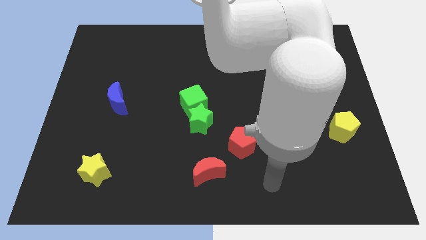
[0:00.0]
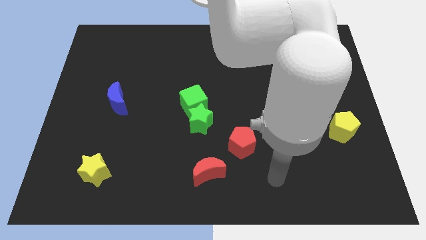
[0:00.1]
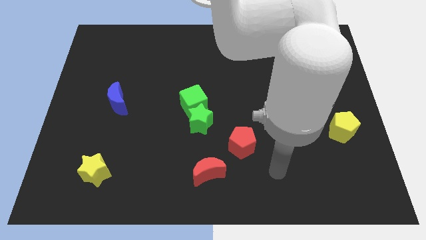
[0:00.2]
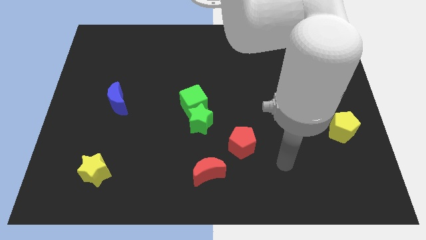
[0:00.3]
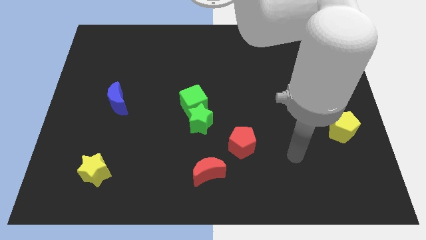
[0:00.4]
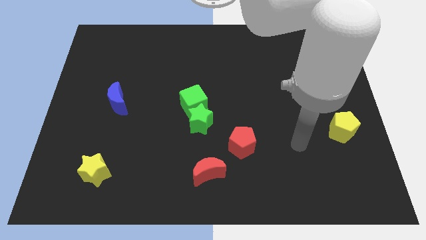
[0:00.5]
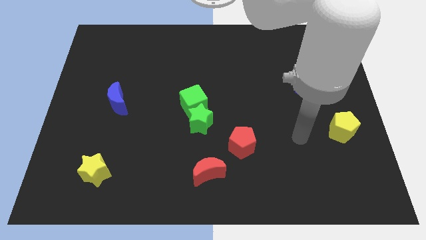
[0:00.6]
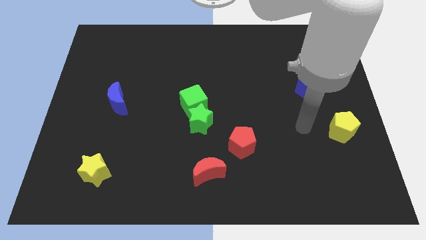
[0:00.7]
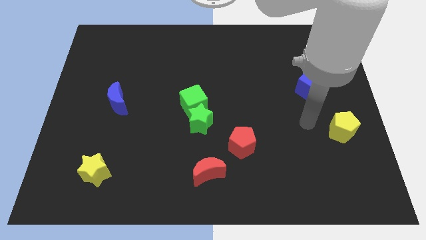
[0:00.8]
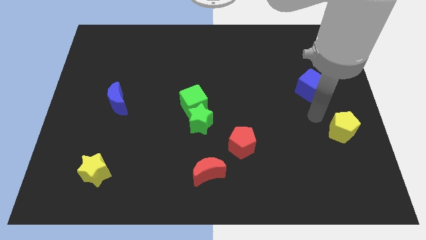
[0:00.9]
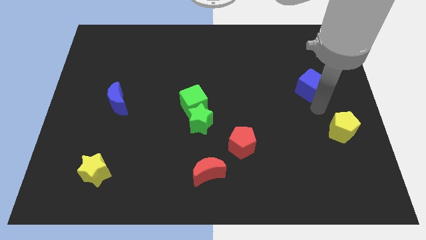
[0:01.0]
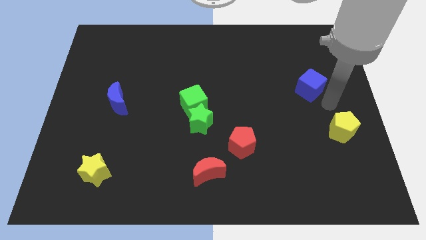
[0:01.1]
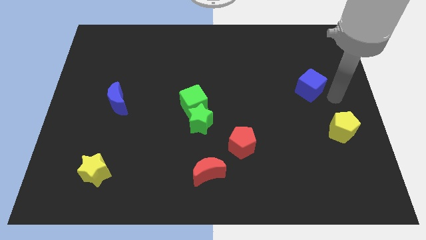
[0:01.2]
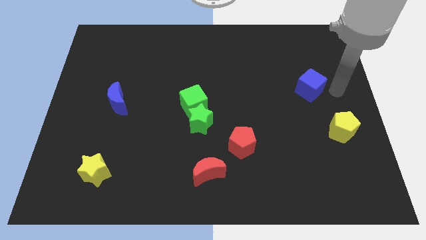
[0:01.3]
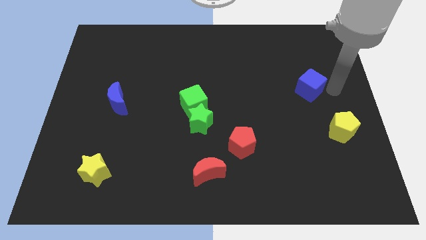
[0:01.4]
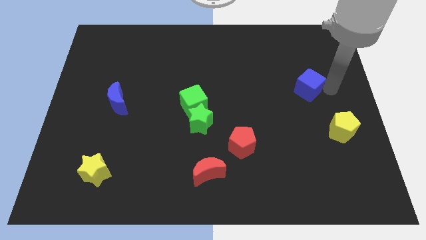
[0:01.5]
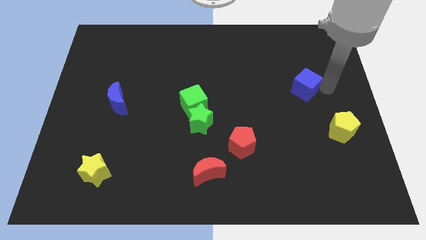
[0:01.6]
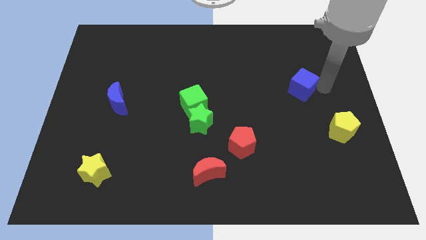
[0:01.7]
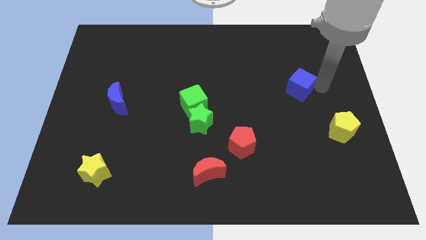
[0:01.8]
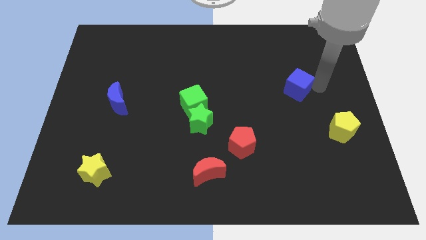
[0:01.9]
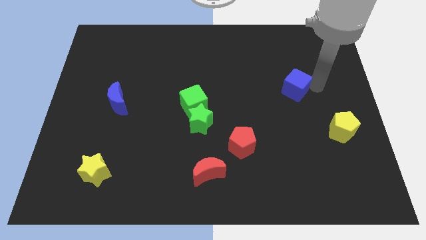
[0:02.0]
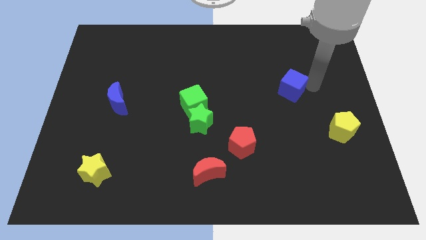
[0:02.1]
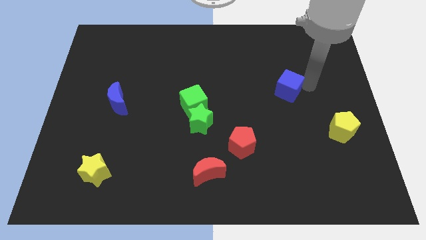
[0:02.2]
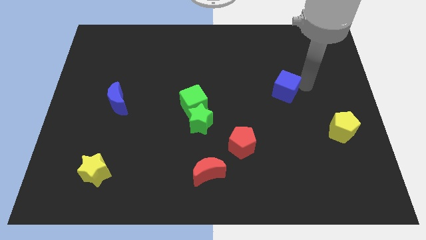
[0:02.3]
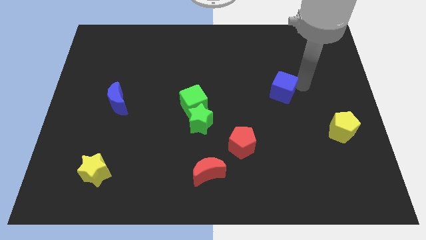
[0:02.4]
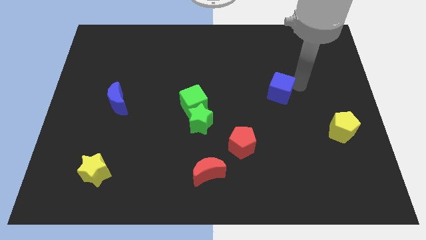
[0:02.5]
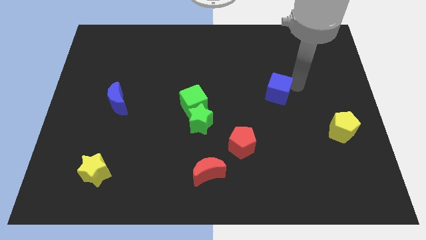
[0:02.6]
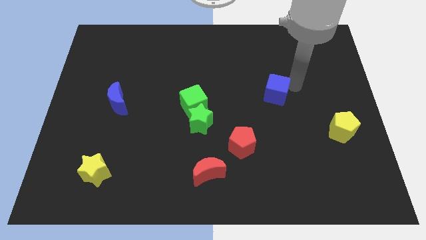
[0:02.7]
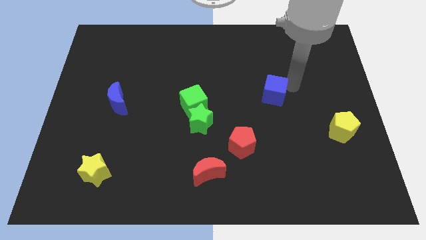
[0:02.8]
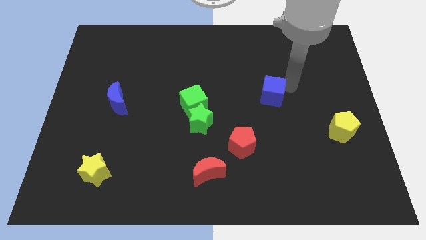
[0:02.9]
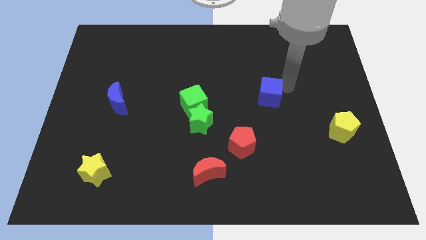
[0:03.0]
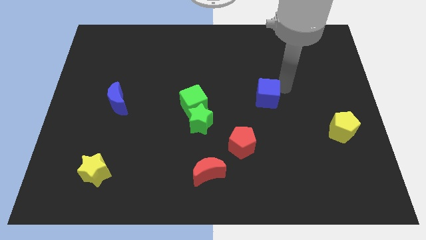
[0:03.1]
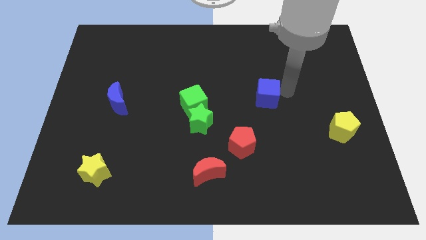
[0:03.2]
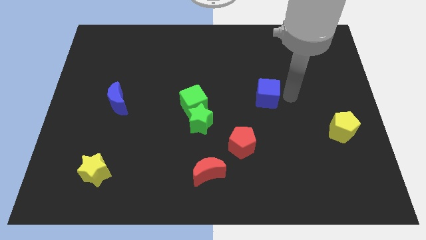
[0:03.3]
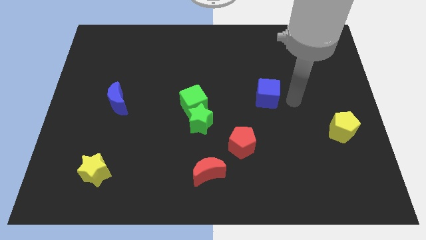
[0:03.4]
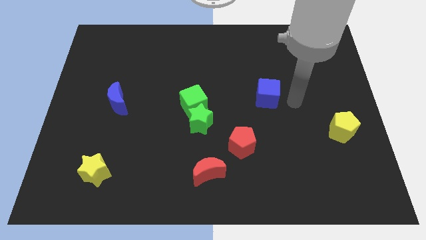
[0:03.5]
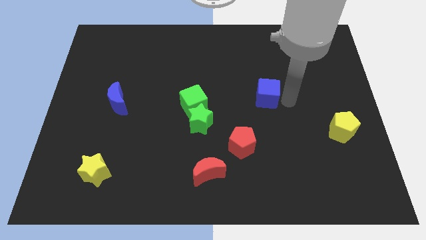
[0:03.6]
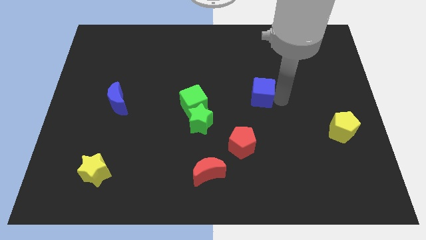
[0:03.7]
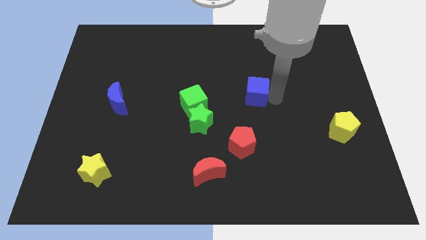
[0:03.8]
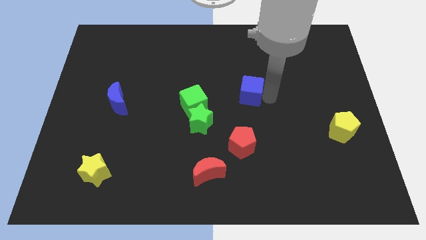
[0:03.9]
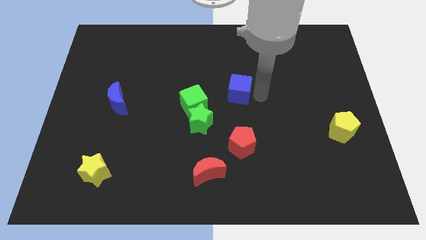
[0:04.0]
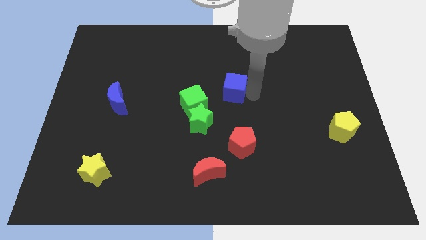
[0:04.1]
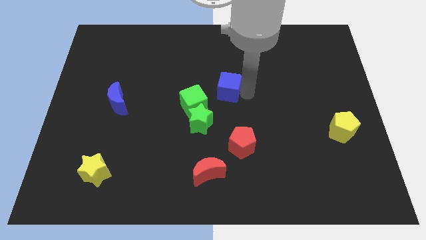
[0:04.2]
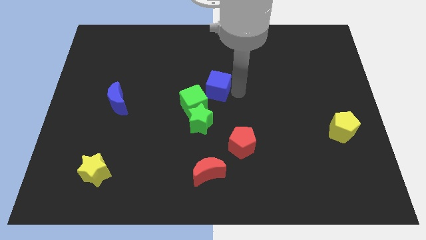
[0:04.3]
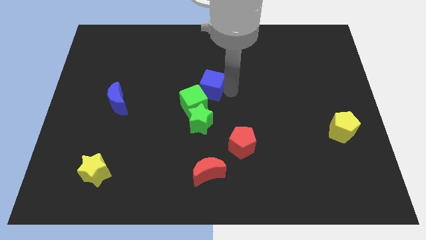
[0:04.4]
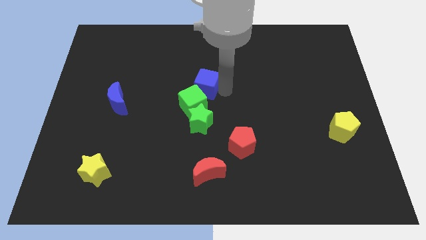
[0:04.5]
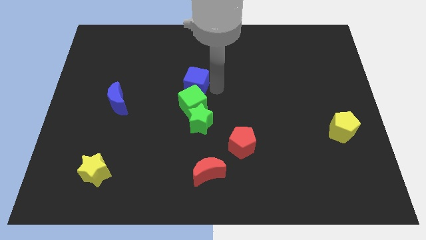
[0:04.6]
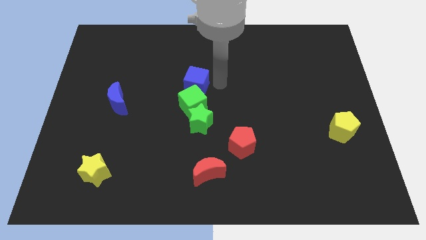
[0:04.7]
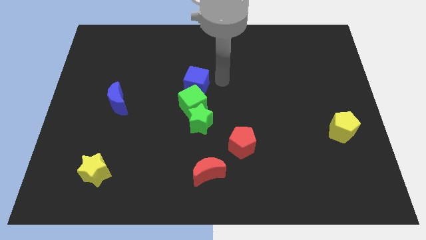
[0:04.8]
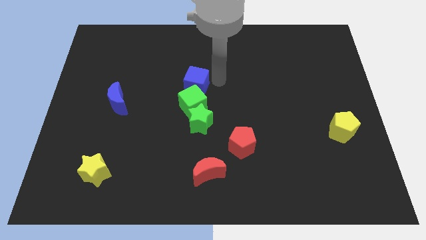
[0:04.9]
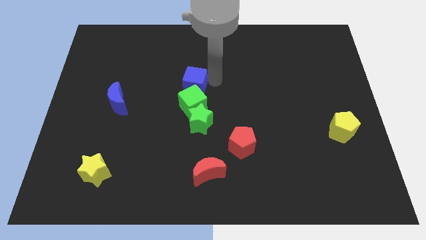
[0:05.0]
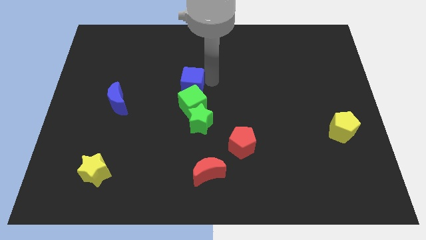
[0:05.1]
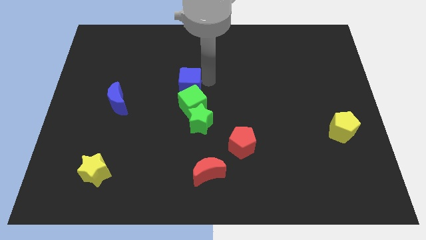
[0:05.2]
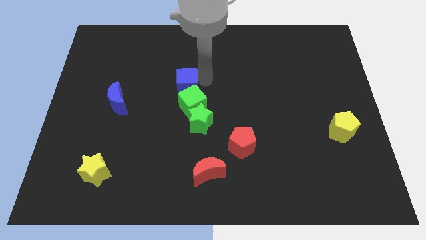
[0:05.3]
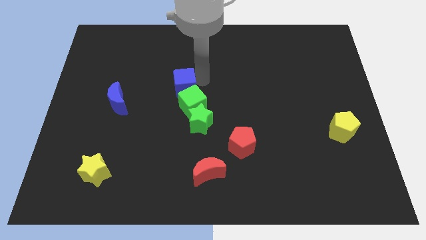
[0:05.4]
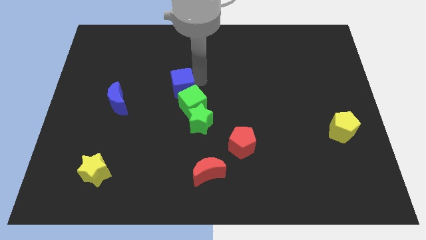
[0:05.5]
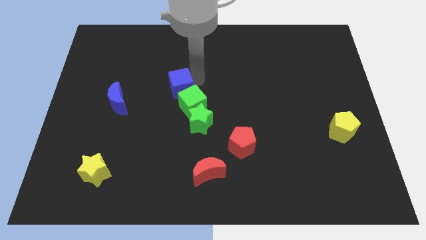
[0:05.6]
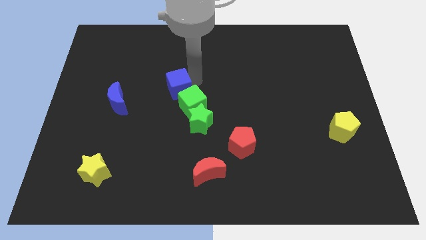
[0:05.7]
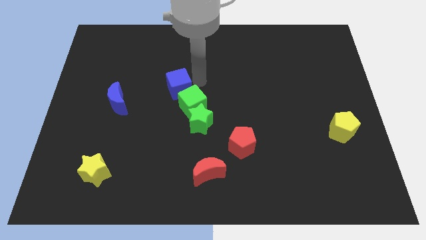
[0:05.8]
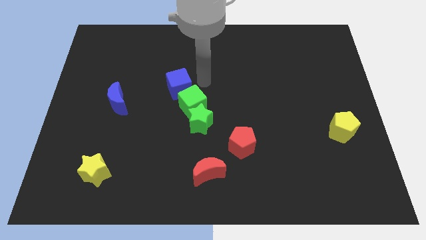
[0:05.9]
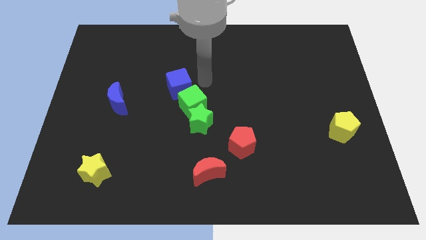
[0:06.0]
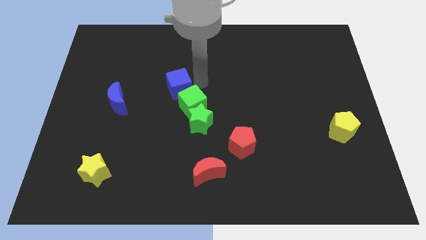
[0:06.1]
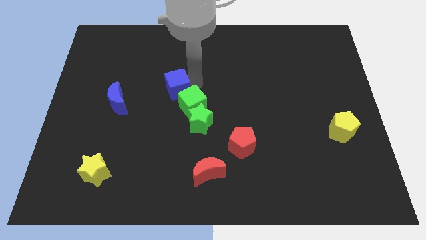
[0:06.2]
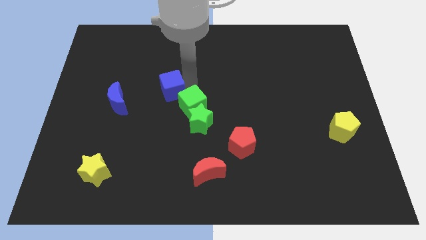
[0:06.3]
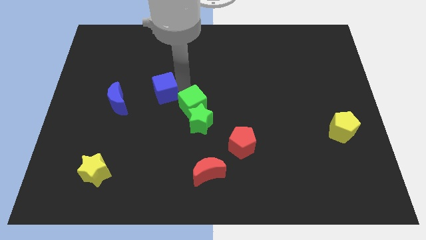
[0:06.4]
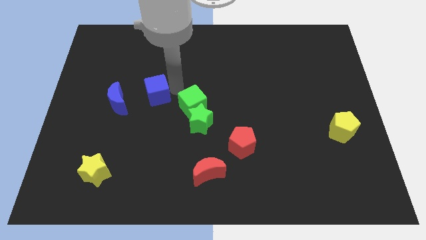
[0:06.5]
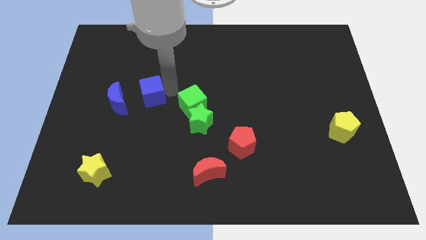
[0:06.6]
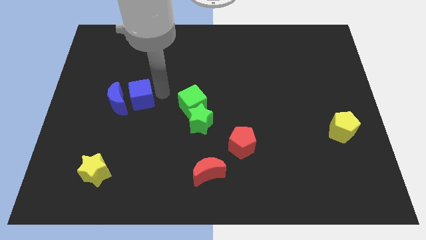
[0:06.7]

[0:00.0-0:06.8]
push the blue cube towards the blue moon

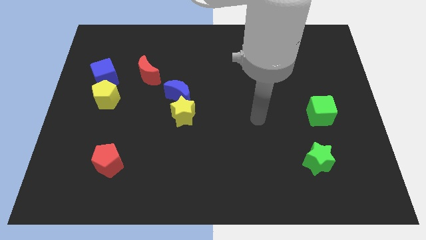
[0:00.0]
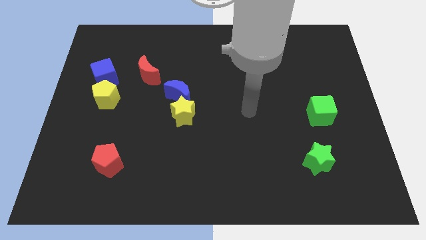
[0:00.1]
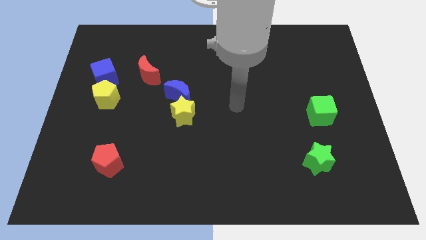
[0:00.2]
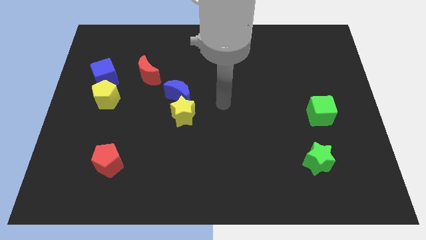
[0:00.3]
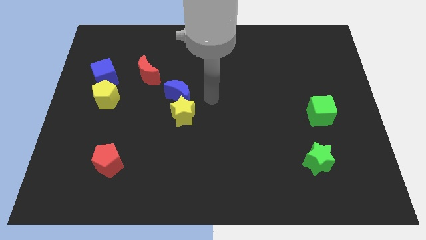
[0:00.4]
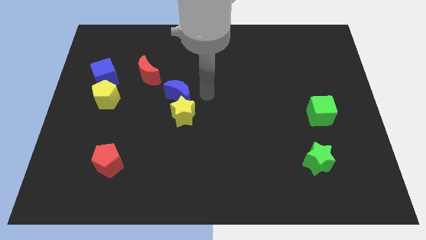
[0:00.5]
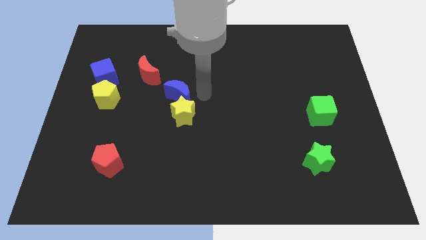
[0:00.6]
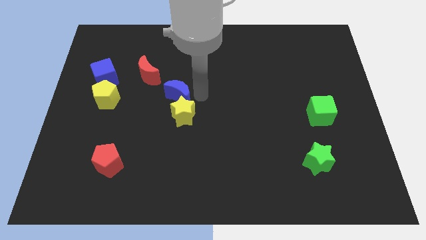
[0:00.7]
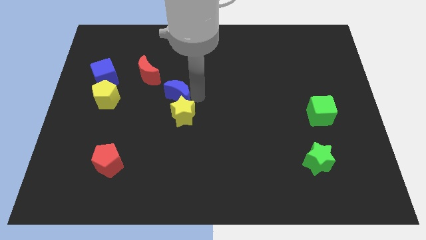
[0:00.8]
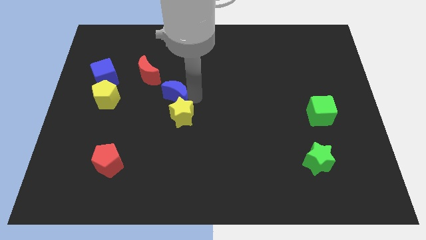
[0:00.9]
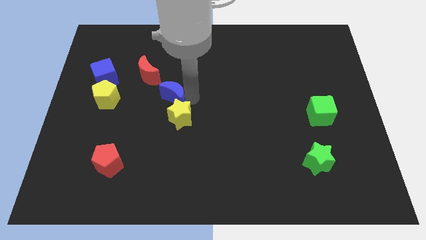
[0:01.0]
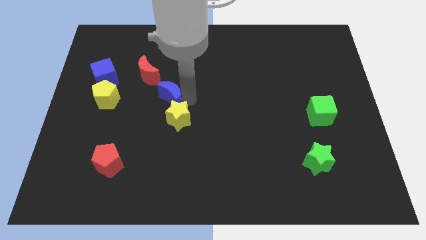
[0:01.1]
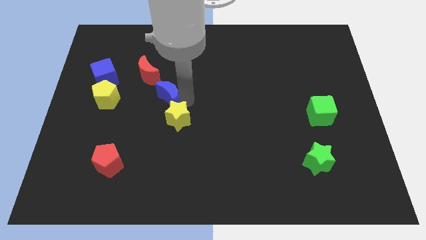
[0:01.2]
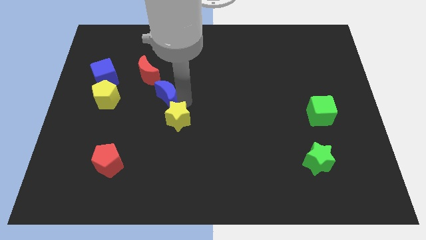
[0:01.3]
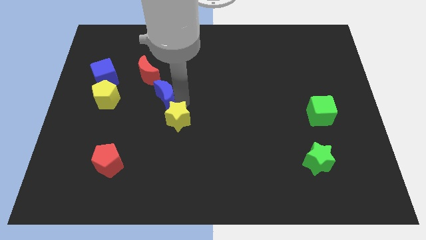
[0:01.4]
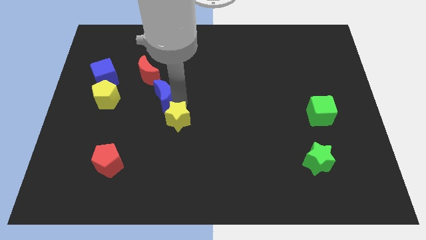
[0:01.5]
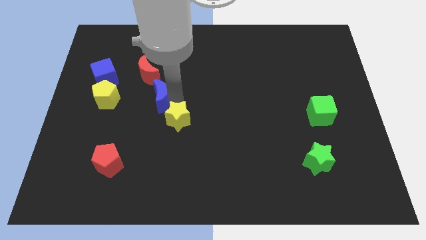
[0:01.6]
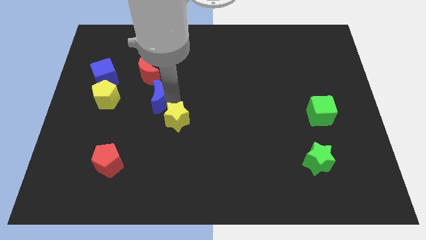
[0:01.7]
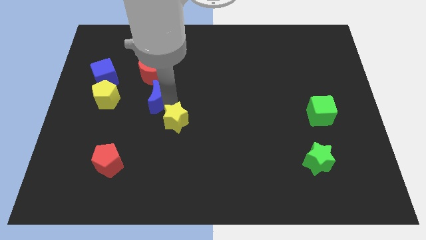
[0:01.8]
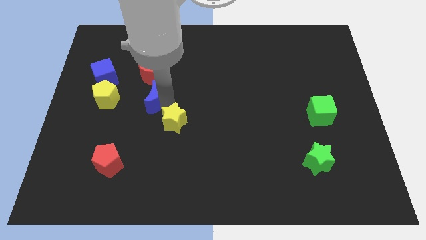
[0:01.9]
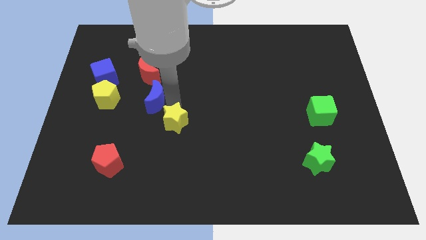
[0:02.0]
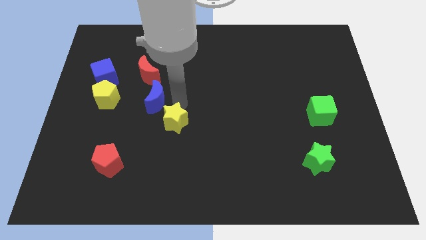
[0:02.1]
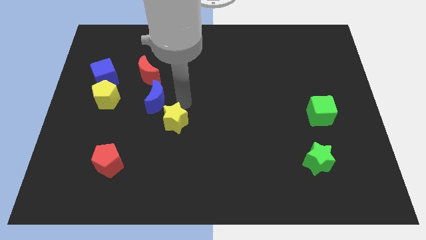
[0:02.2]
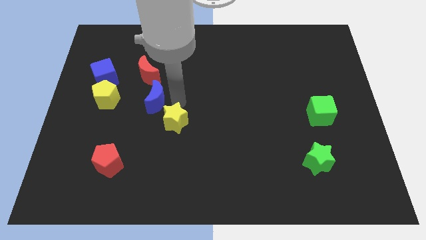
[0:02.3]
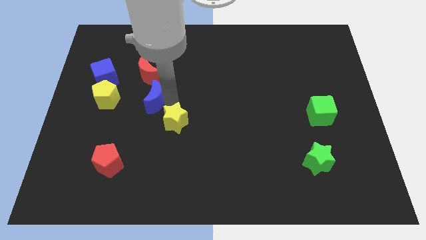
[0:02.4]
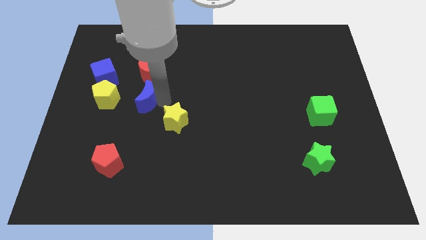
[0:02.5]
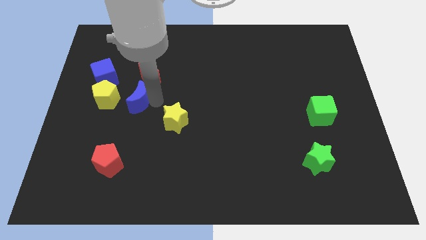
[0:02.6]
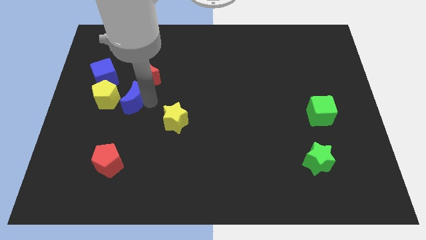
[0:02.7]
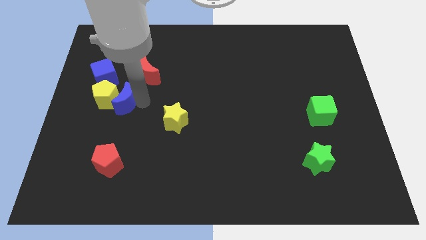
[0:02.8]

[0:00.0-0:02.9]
move the blue moon to the yellow pentagon
